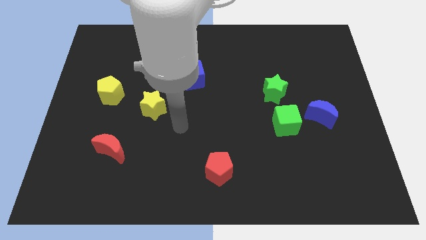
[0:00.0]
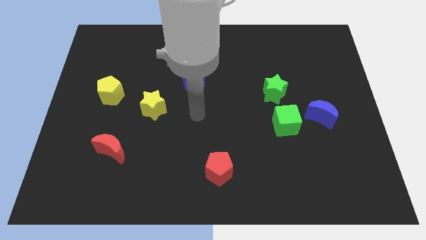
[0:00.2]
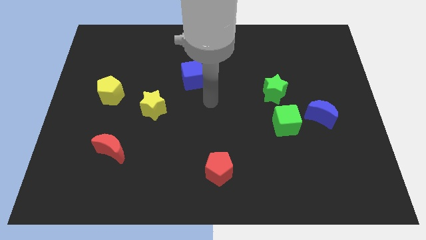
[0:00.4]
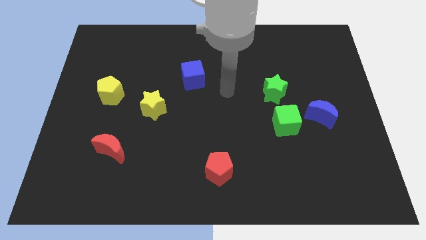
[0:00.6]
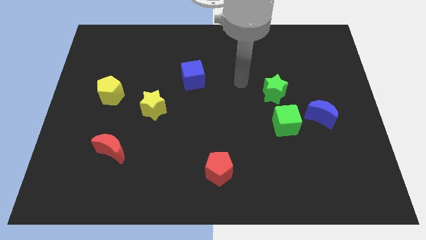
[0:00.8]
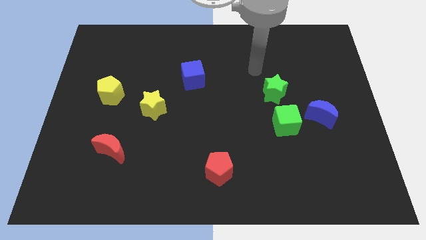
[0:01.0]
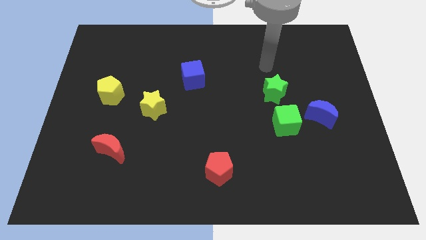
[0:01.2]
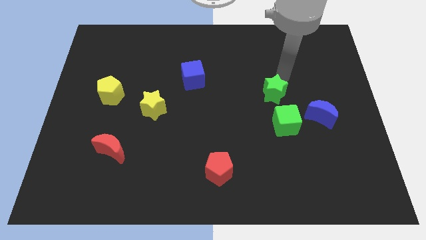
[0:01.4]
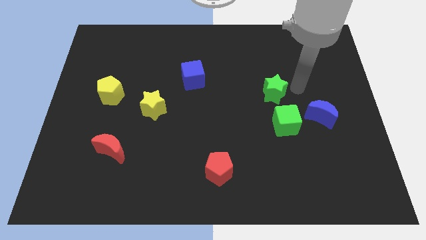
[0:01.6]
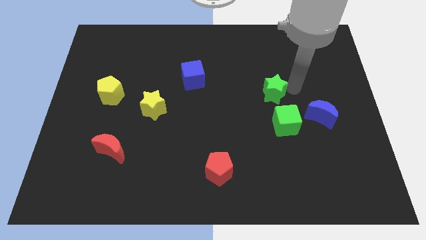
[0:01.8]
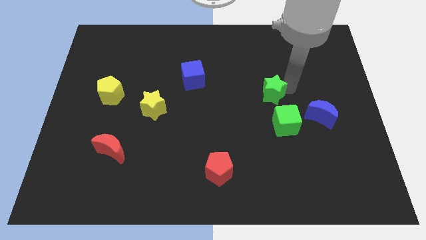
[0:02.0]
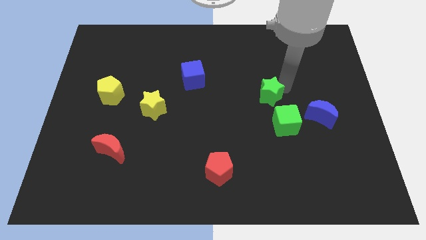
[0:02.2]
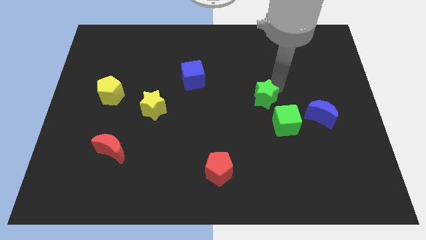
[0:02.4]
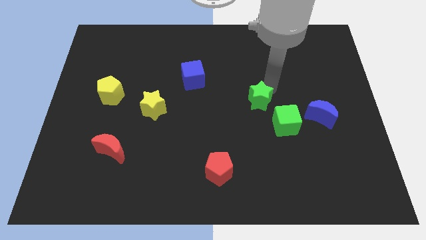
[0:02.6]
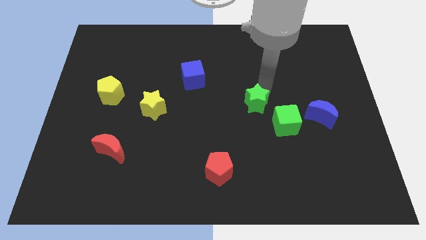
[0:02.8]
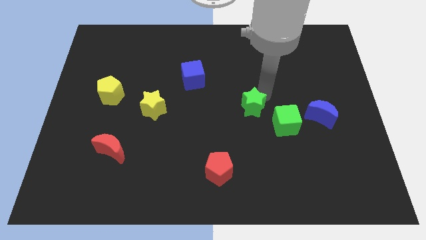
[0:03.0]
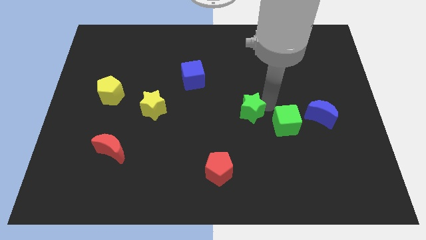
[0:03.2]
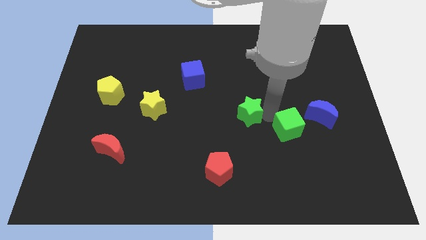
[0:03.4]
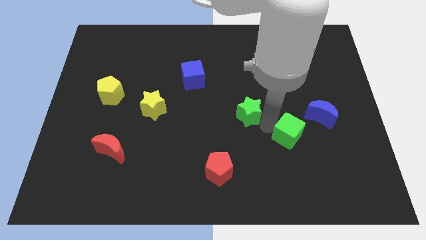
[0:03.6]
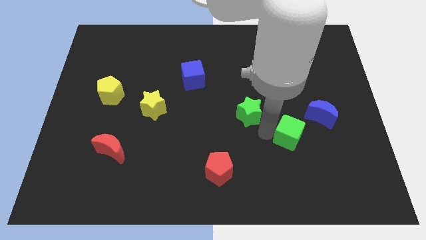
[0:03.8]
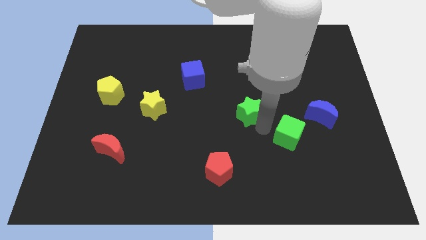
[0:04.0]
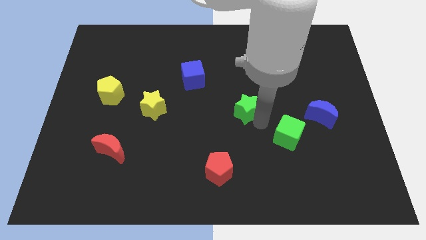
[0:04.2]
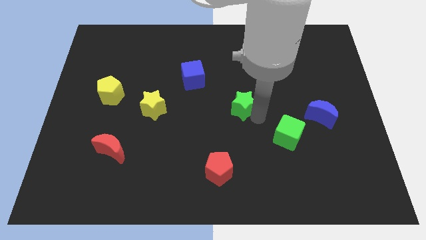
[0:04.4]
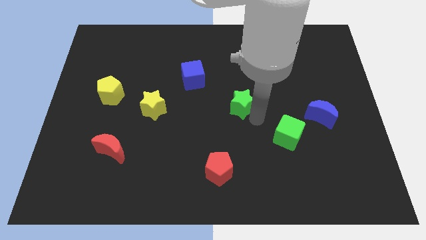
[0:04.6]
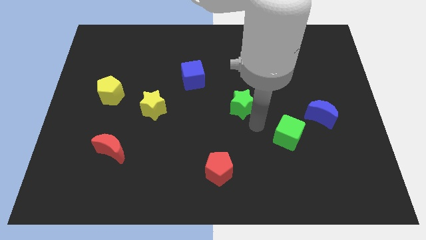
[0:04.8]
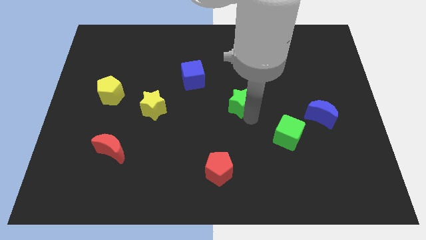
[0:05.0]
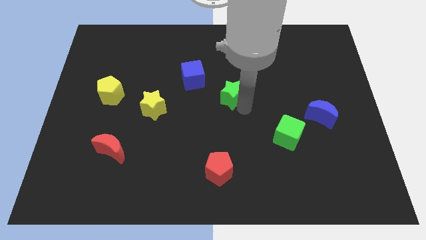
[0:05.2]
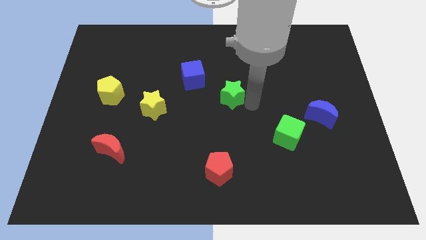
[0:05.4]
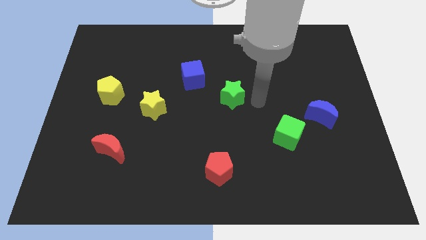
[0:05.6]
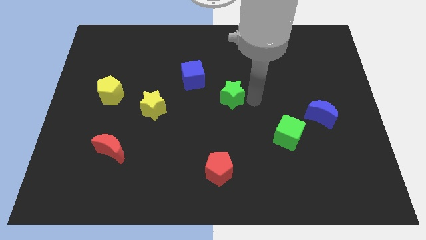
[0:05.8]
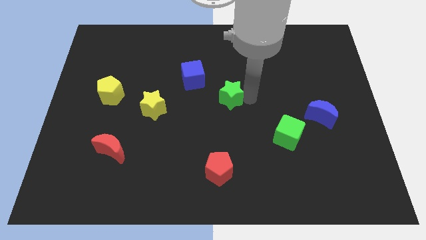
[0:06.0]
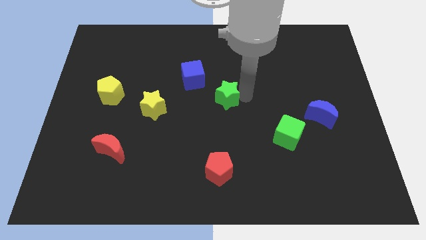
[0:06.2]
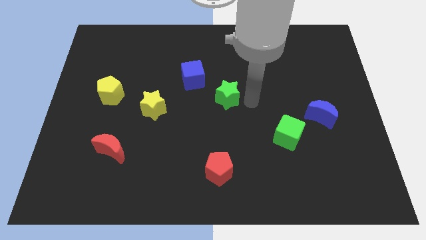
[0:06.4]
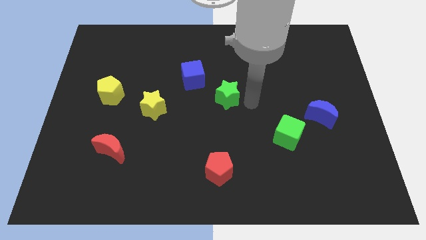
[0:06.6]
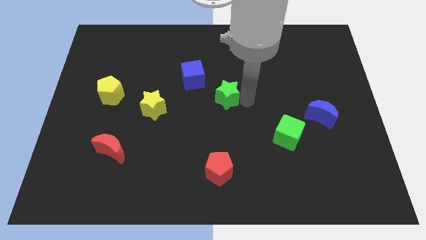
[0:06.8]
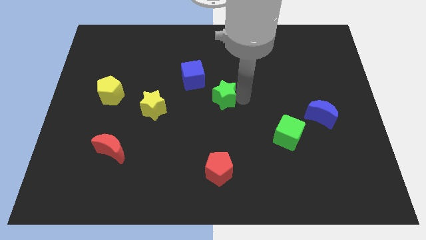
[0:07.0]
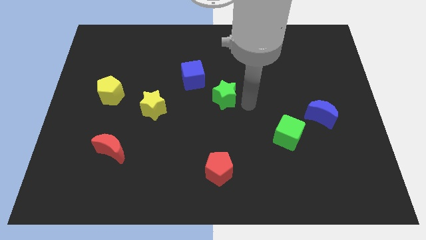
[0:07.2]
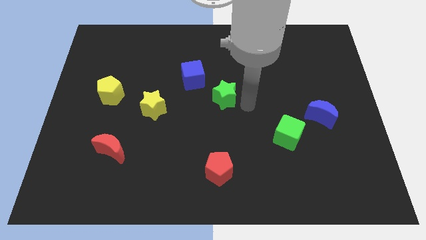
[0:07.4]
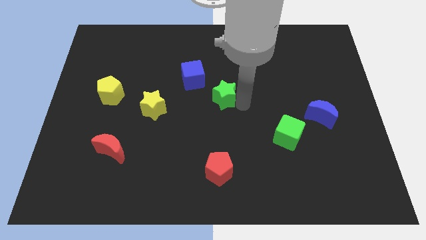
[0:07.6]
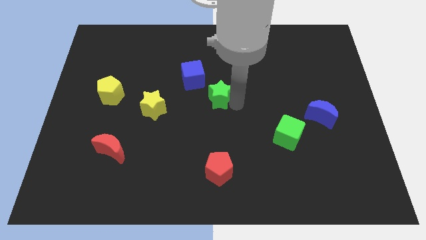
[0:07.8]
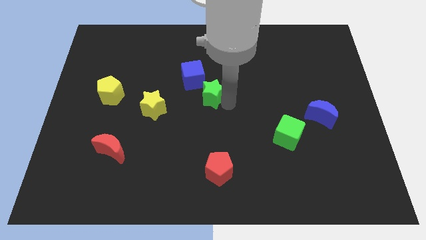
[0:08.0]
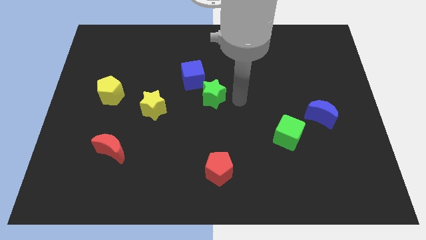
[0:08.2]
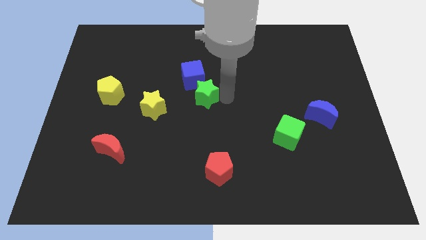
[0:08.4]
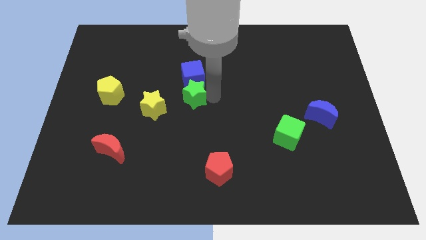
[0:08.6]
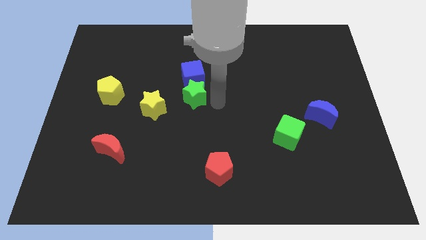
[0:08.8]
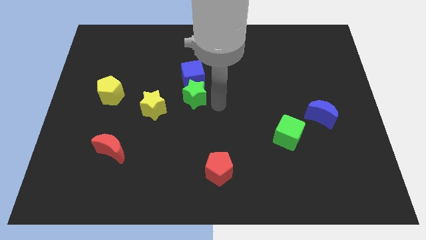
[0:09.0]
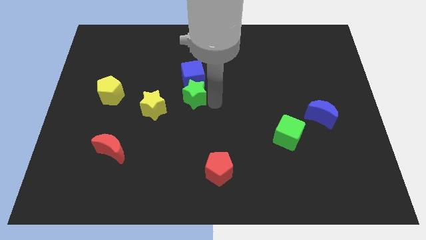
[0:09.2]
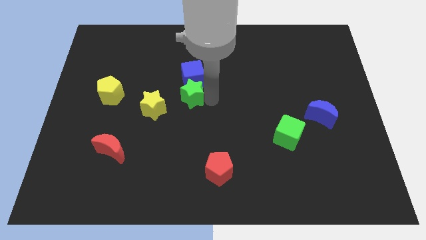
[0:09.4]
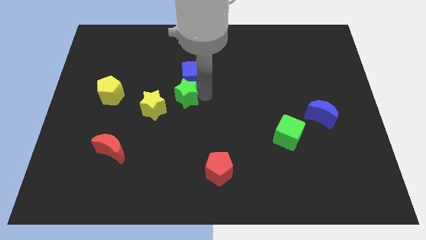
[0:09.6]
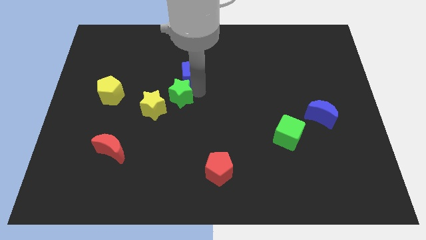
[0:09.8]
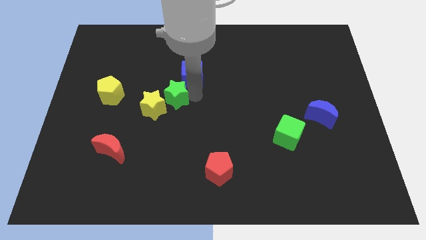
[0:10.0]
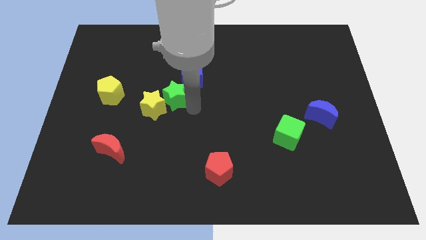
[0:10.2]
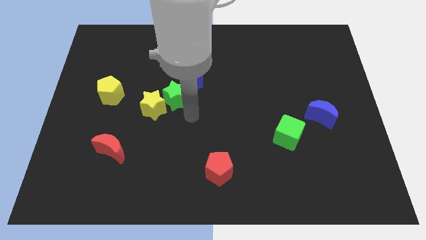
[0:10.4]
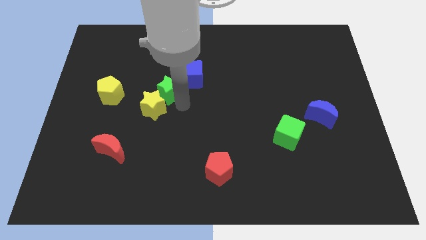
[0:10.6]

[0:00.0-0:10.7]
push the green star to the top side of the yellow star

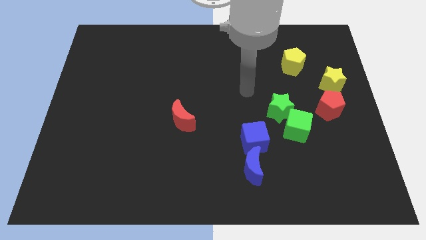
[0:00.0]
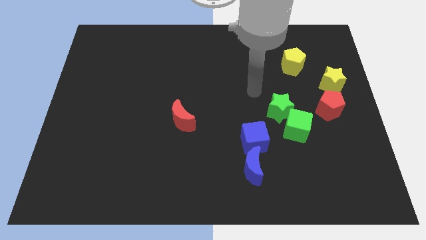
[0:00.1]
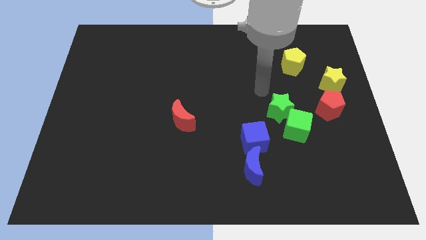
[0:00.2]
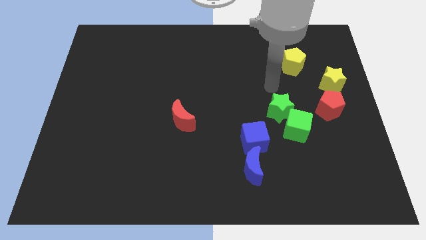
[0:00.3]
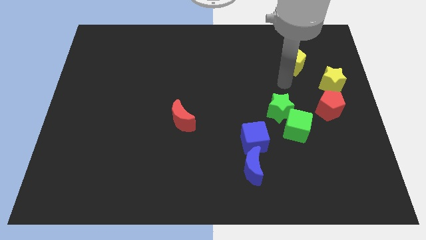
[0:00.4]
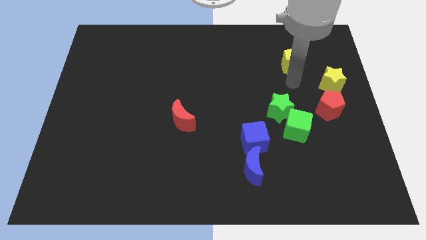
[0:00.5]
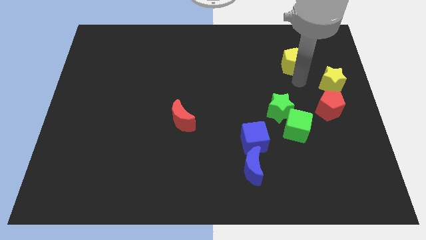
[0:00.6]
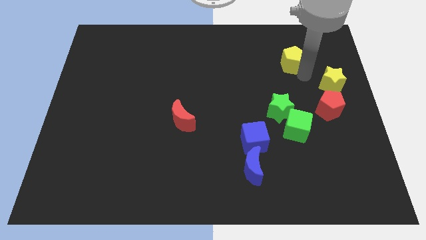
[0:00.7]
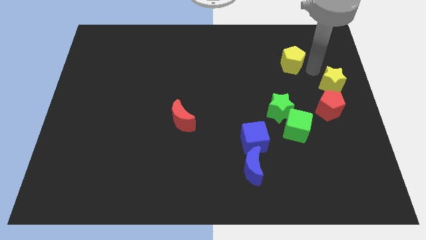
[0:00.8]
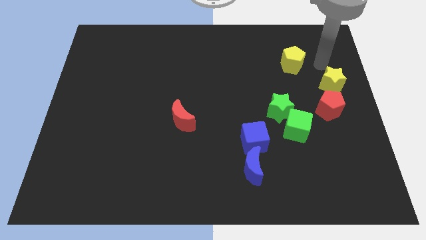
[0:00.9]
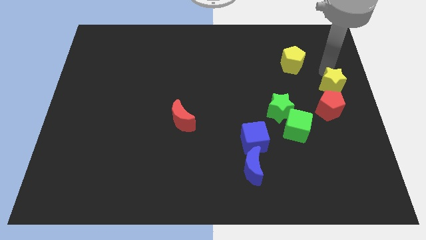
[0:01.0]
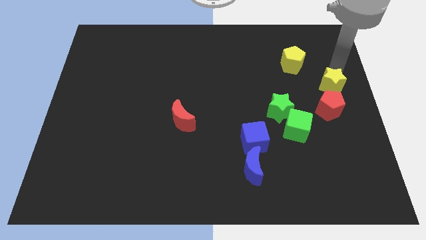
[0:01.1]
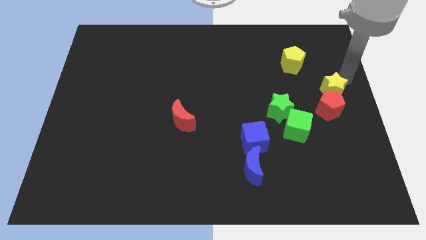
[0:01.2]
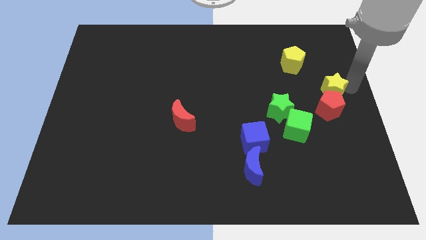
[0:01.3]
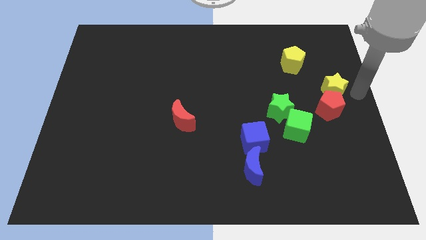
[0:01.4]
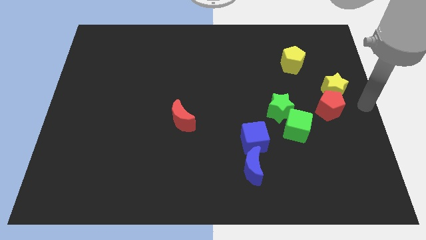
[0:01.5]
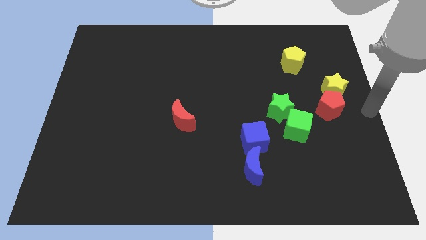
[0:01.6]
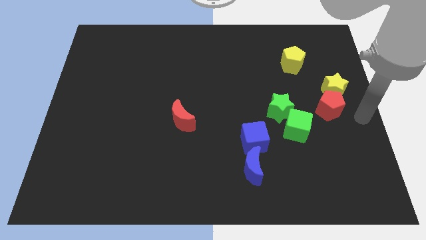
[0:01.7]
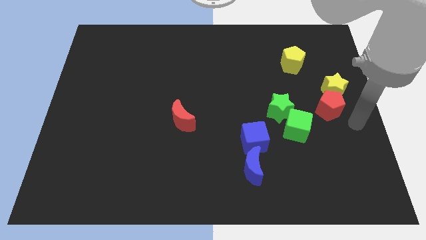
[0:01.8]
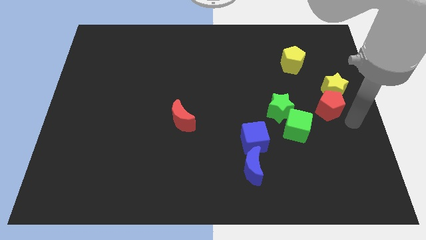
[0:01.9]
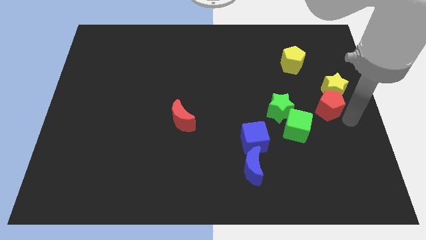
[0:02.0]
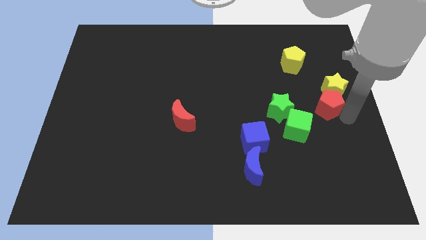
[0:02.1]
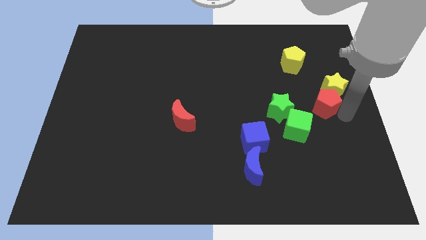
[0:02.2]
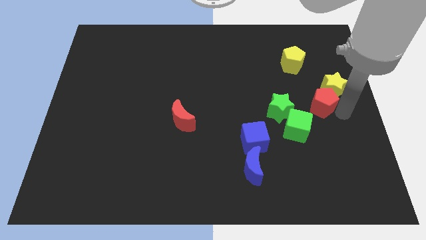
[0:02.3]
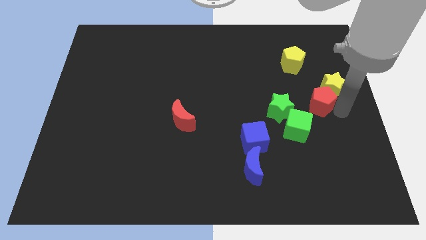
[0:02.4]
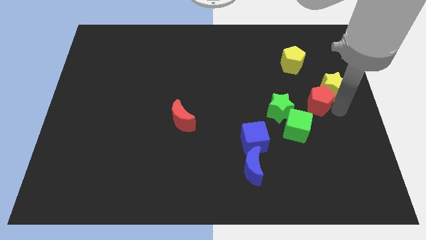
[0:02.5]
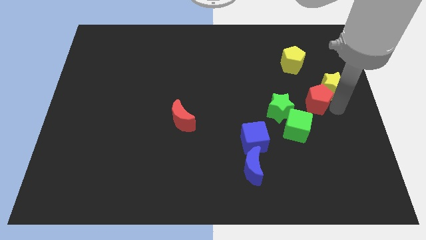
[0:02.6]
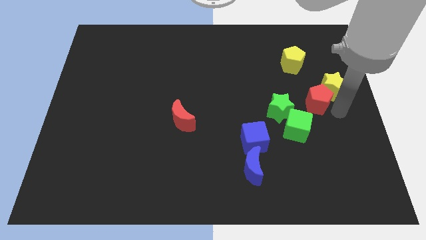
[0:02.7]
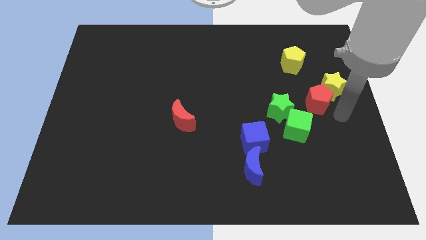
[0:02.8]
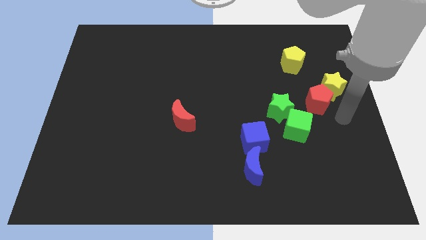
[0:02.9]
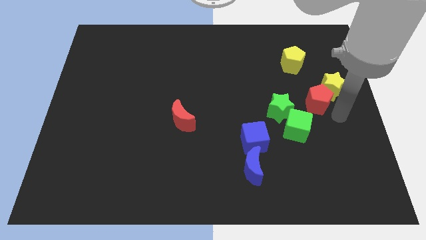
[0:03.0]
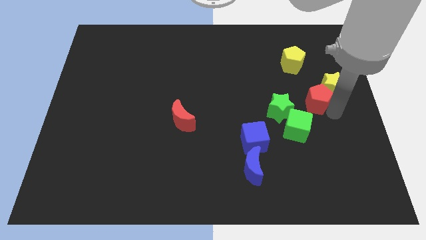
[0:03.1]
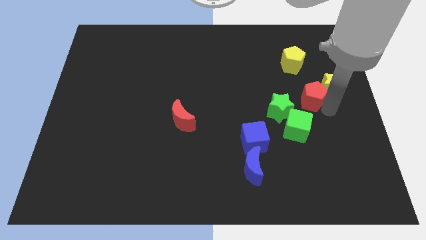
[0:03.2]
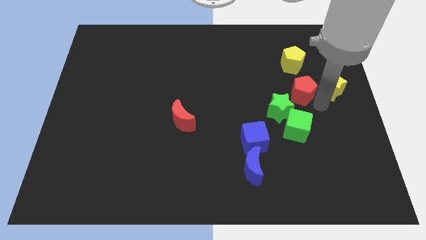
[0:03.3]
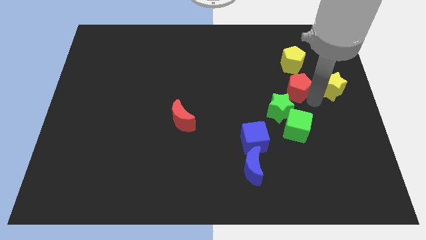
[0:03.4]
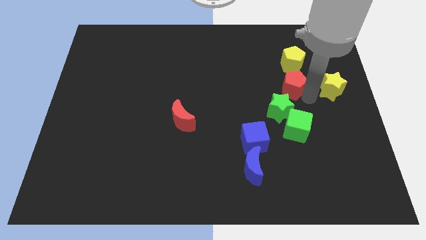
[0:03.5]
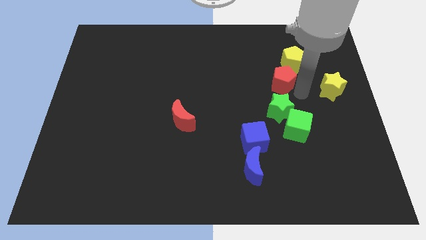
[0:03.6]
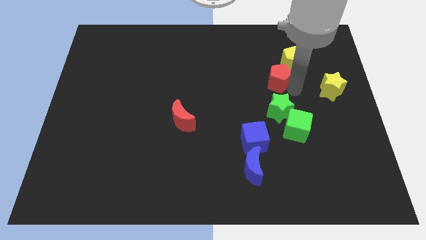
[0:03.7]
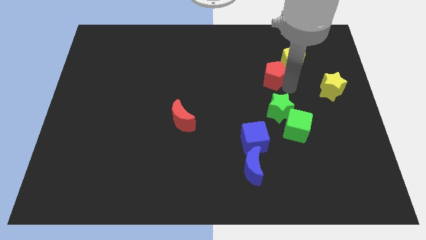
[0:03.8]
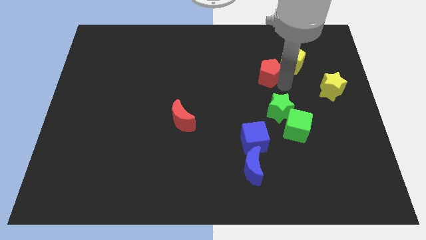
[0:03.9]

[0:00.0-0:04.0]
slide the red pentagon to the left of the yellow pentagon
